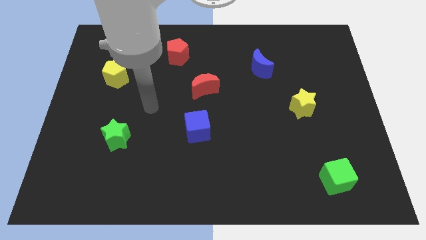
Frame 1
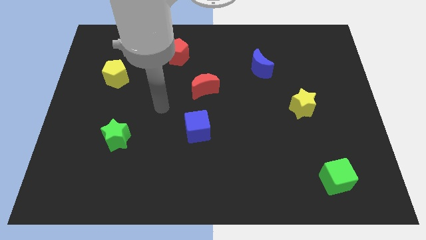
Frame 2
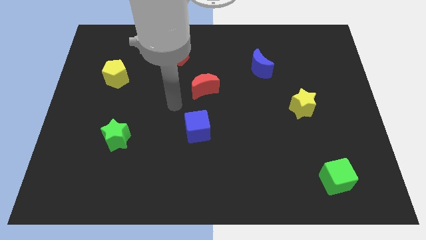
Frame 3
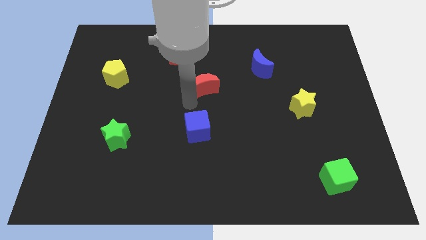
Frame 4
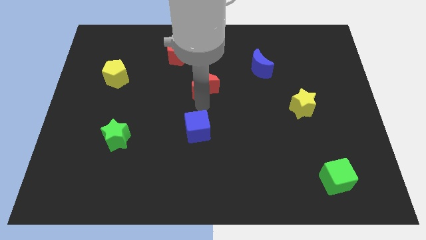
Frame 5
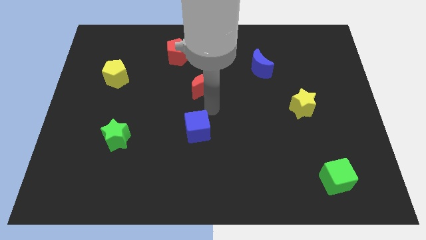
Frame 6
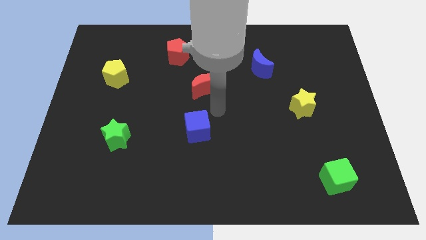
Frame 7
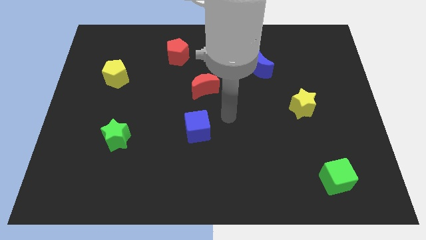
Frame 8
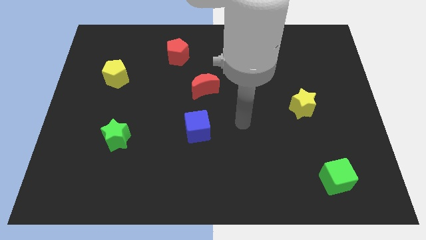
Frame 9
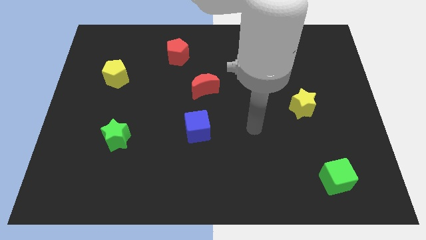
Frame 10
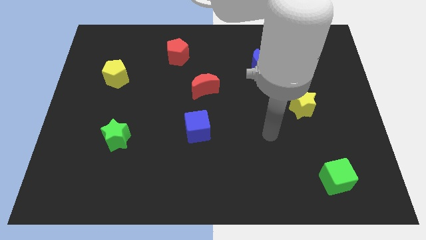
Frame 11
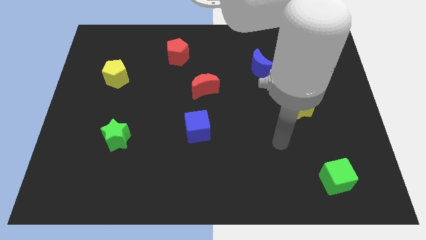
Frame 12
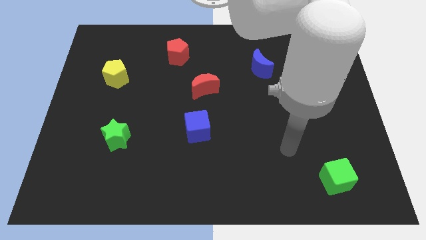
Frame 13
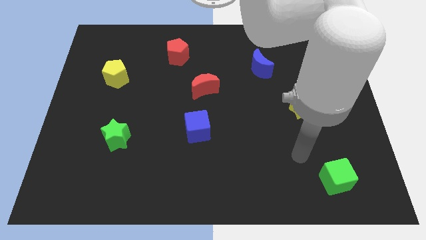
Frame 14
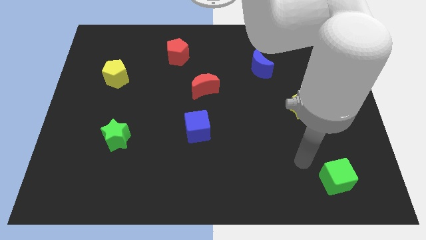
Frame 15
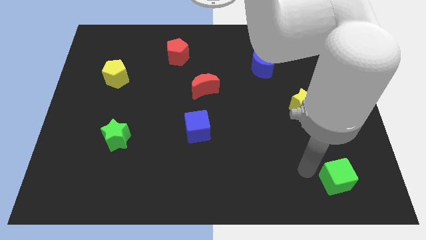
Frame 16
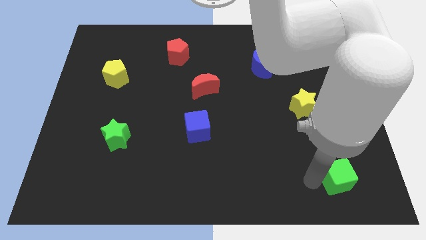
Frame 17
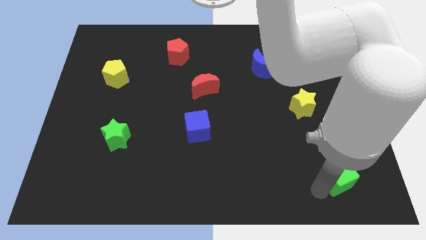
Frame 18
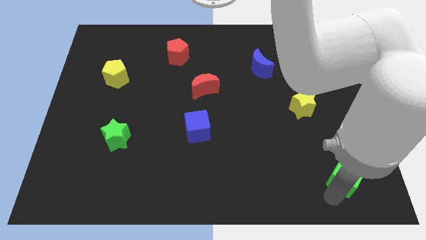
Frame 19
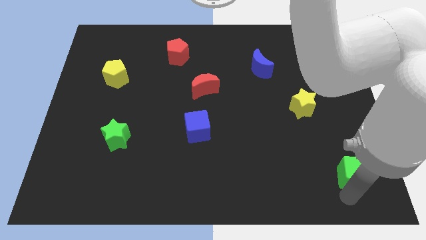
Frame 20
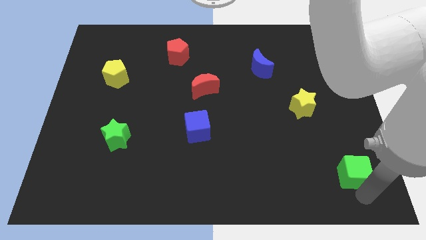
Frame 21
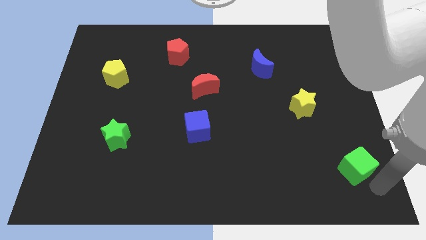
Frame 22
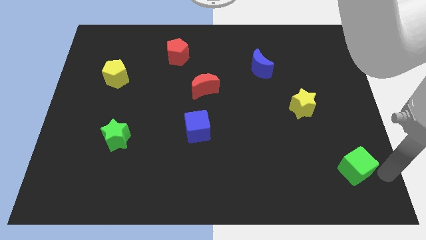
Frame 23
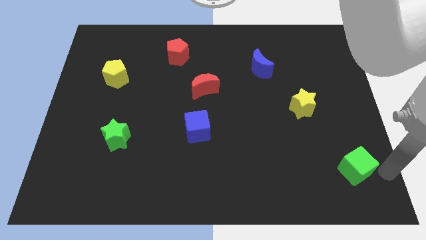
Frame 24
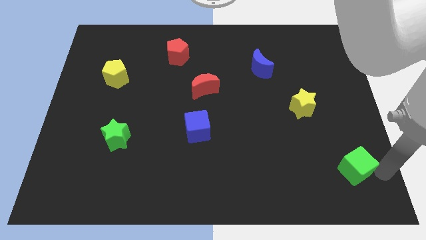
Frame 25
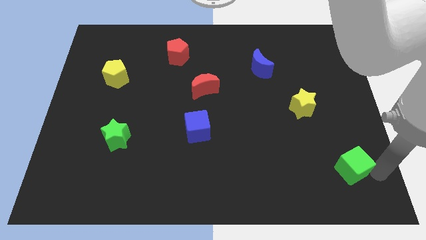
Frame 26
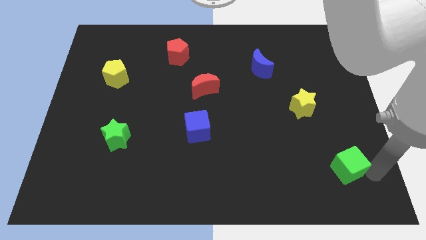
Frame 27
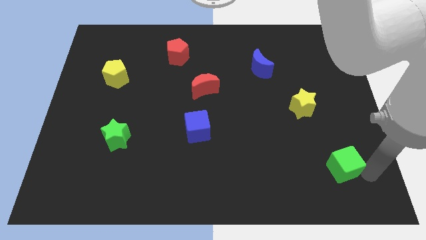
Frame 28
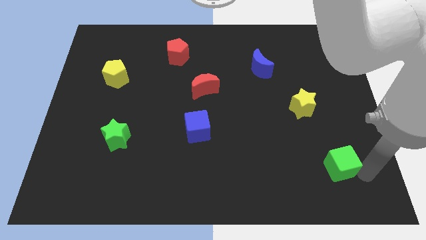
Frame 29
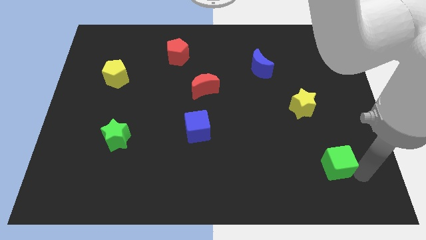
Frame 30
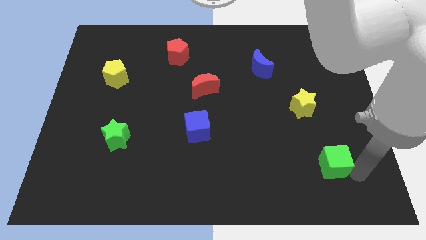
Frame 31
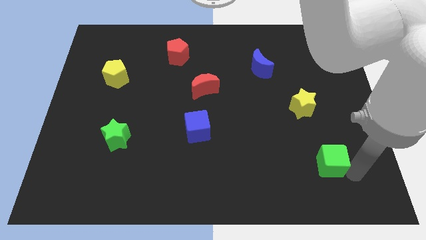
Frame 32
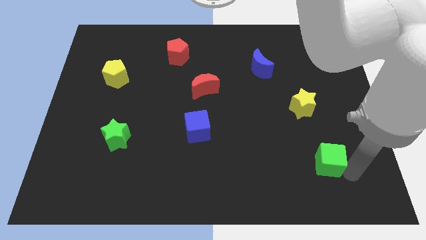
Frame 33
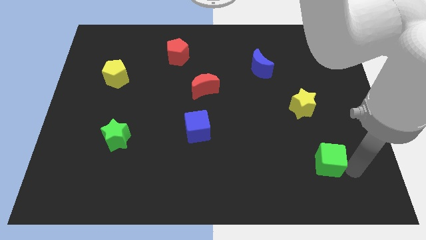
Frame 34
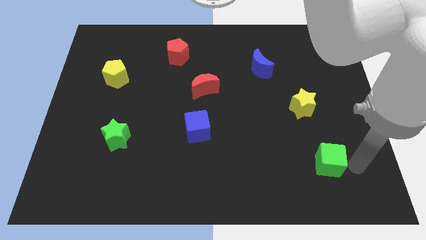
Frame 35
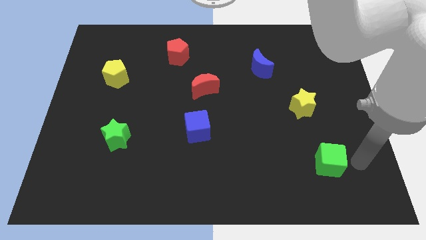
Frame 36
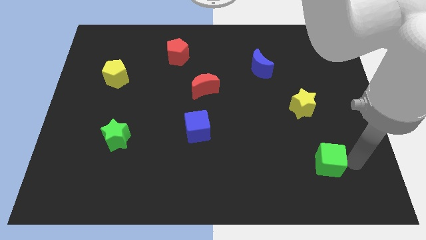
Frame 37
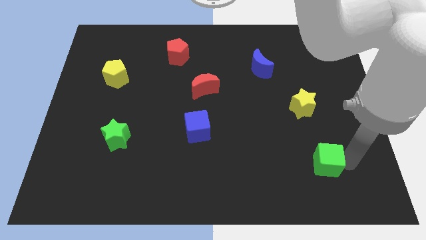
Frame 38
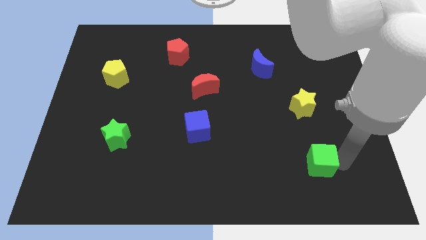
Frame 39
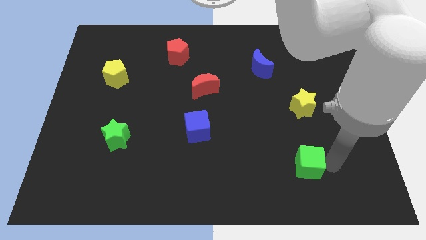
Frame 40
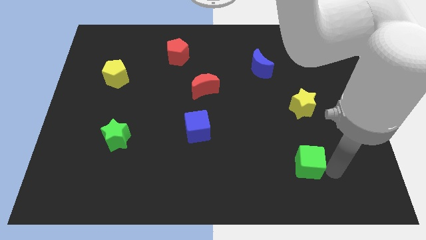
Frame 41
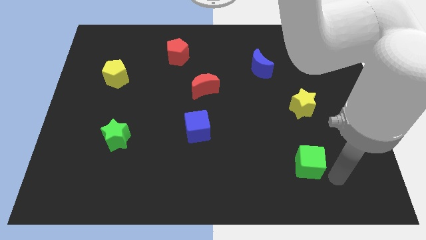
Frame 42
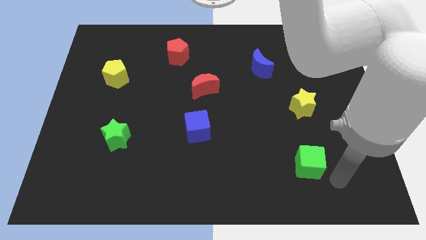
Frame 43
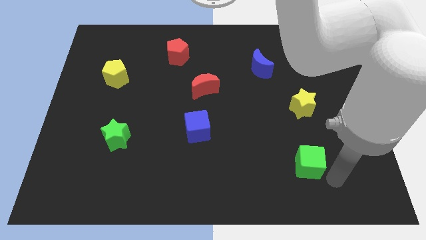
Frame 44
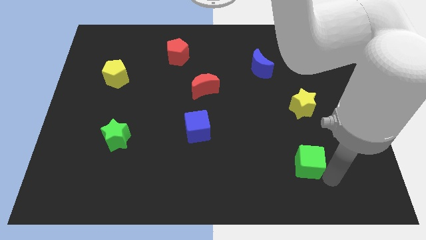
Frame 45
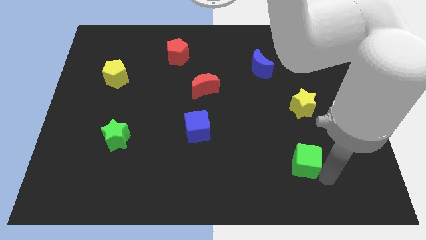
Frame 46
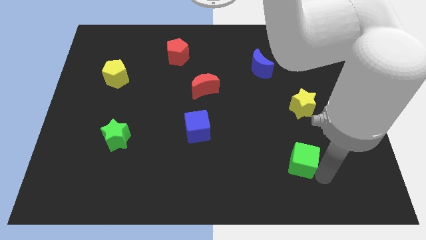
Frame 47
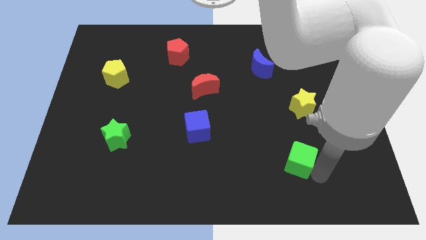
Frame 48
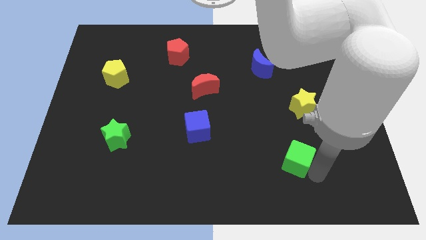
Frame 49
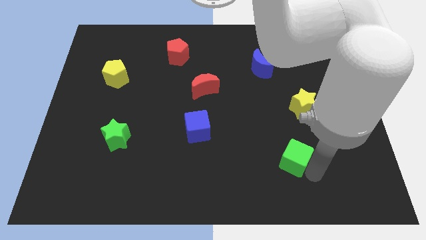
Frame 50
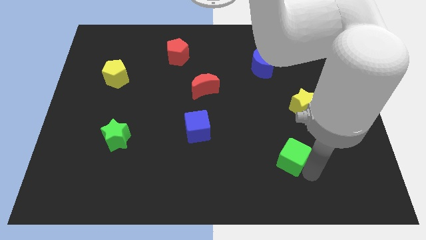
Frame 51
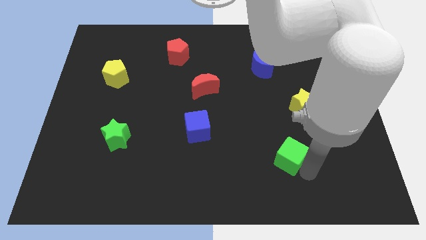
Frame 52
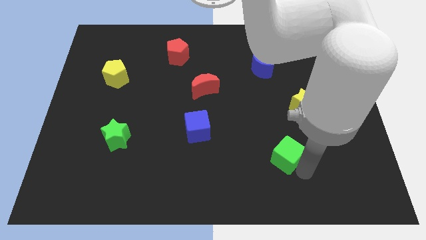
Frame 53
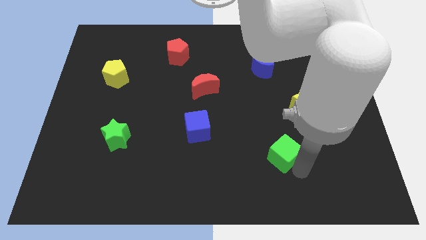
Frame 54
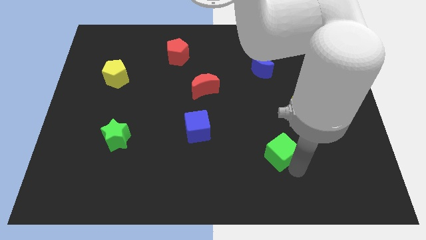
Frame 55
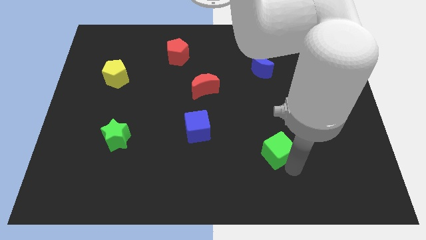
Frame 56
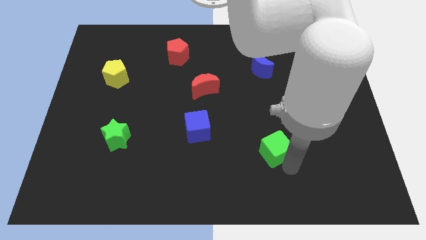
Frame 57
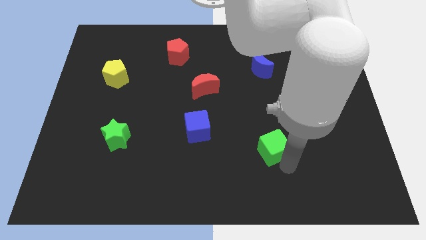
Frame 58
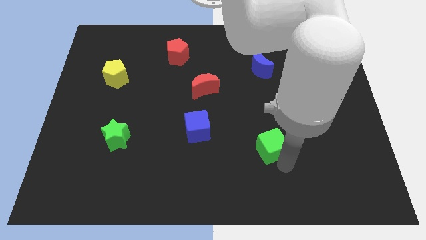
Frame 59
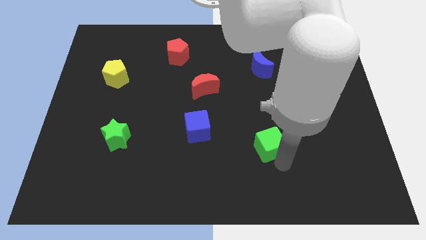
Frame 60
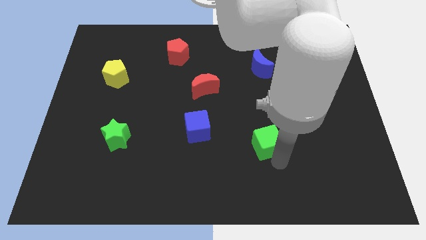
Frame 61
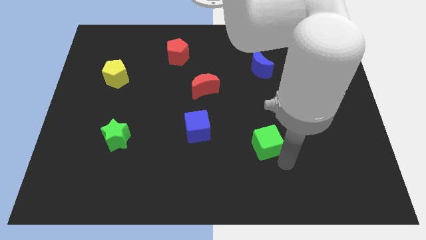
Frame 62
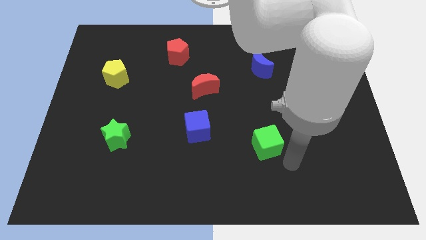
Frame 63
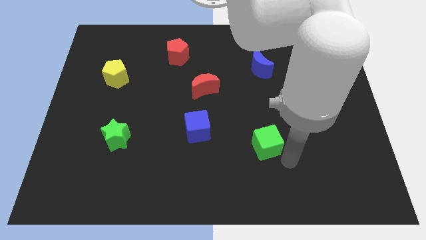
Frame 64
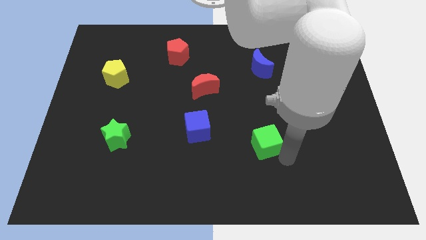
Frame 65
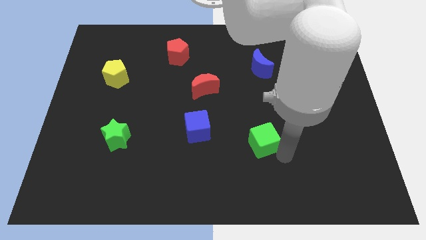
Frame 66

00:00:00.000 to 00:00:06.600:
slide the green cube to the right of the blue cube
